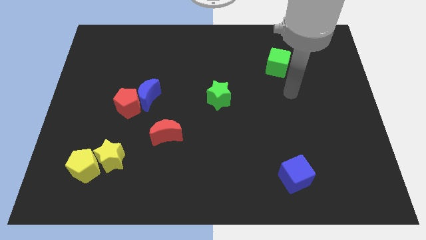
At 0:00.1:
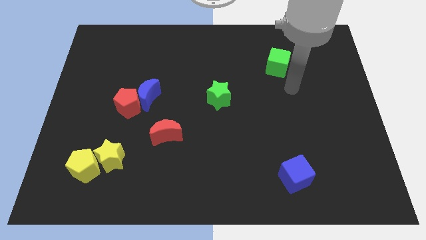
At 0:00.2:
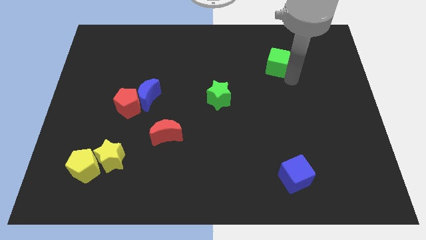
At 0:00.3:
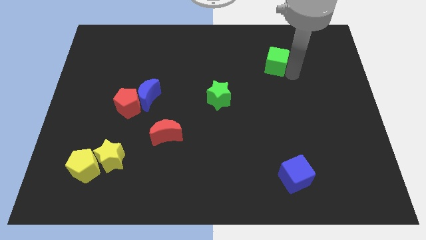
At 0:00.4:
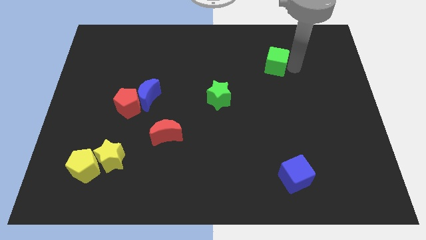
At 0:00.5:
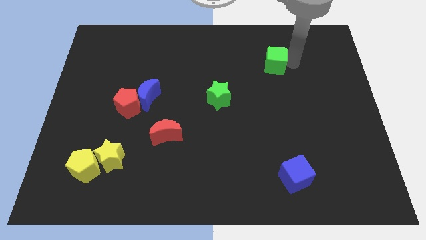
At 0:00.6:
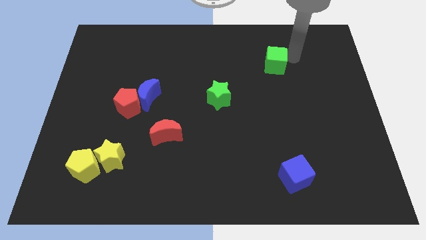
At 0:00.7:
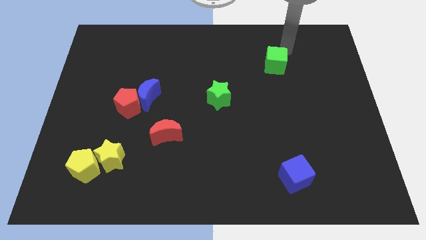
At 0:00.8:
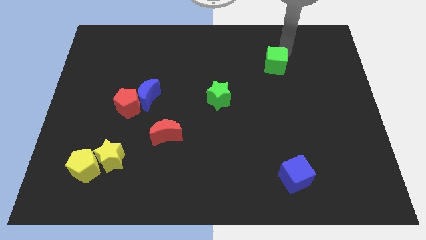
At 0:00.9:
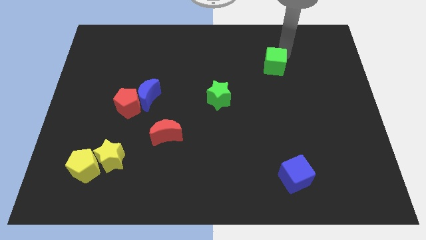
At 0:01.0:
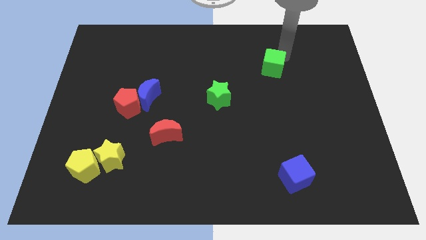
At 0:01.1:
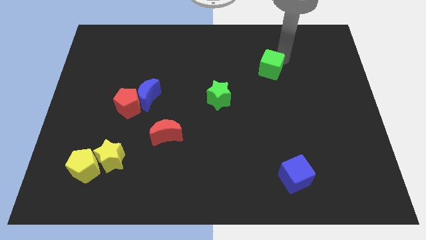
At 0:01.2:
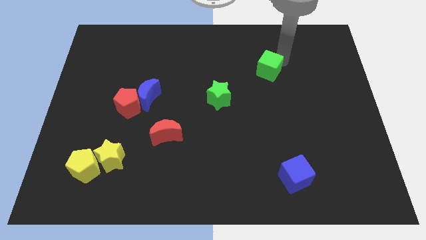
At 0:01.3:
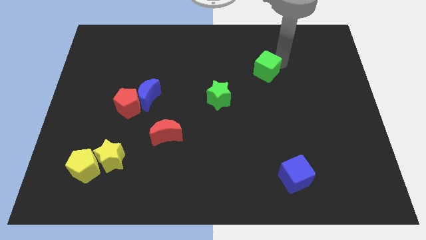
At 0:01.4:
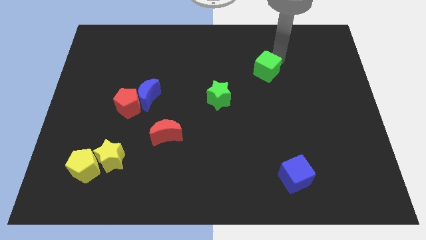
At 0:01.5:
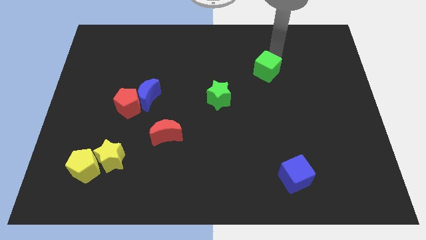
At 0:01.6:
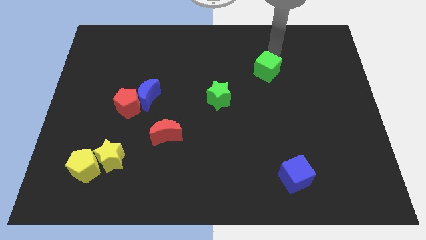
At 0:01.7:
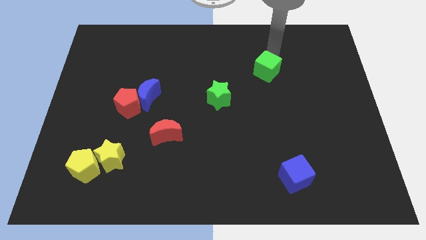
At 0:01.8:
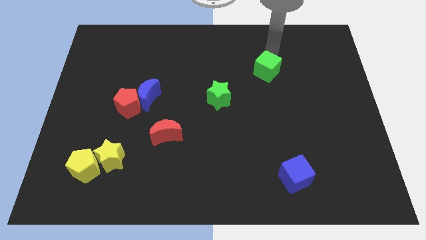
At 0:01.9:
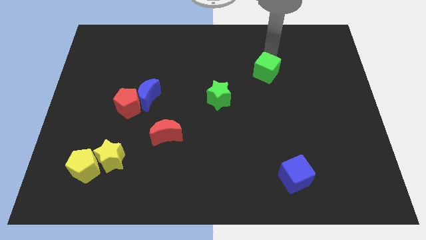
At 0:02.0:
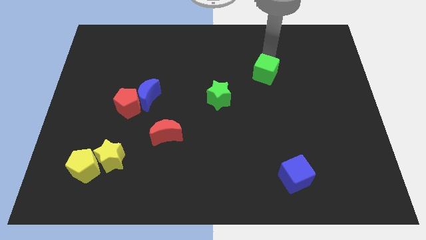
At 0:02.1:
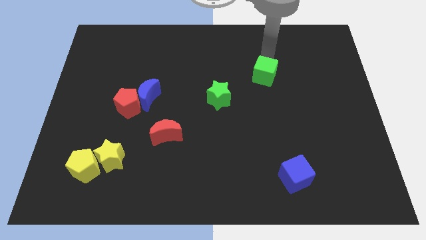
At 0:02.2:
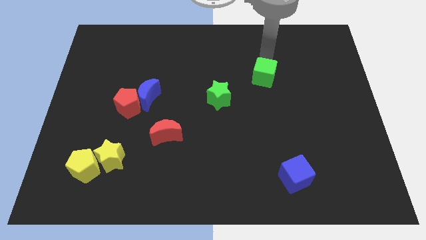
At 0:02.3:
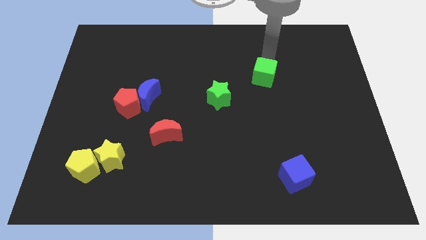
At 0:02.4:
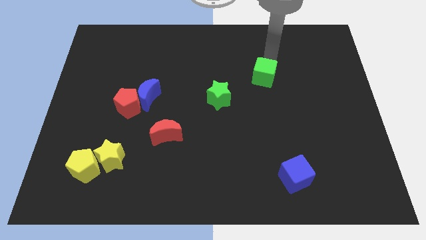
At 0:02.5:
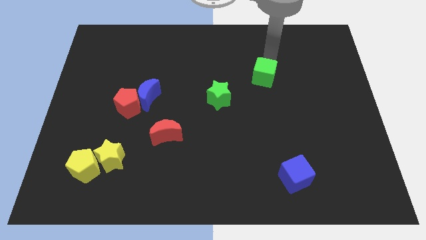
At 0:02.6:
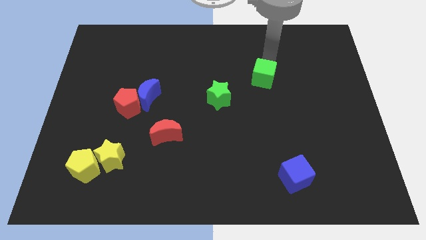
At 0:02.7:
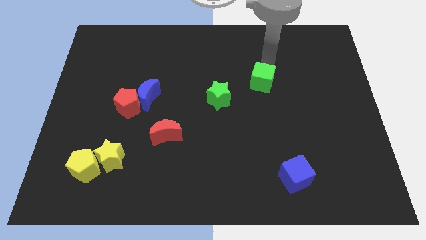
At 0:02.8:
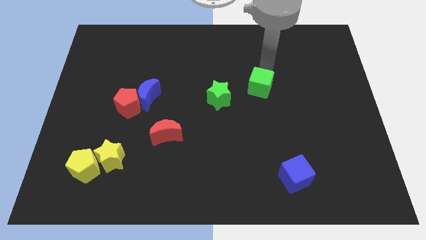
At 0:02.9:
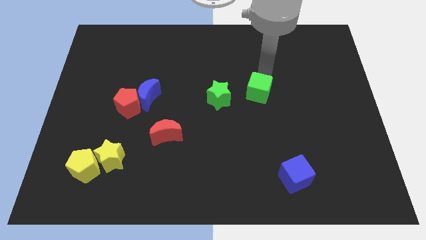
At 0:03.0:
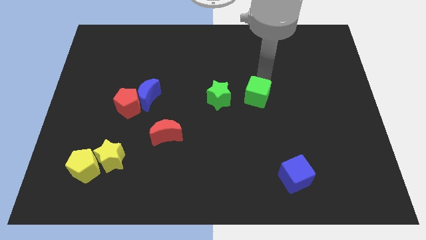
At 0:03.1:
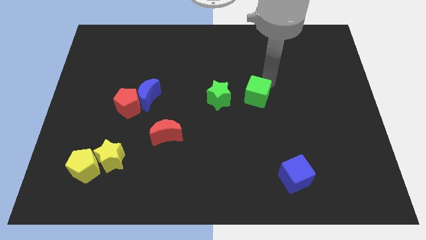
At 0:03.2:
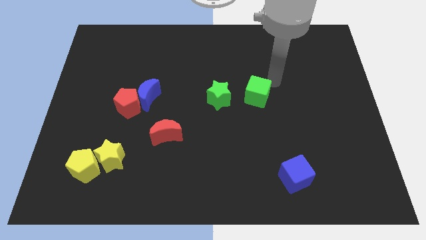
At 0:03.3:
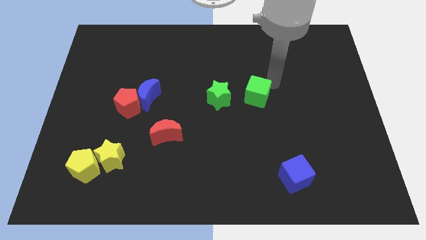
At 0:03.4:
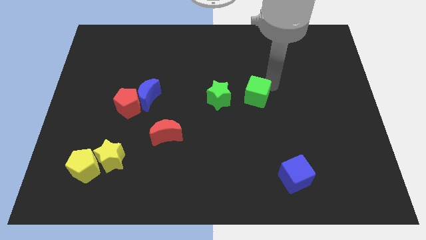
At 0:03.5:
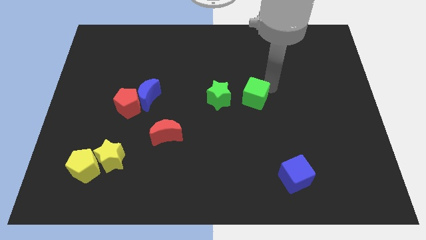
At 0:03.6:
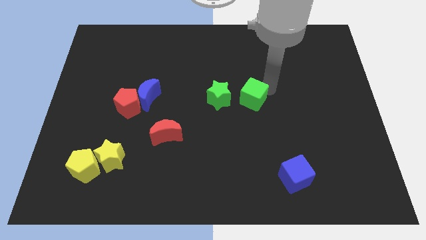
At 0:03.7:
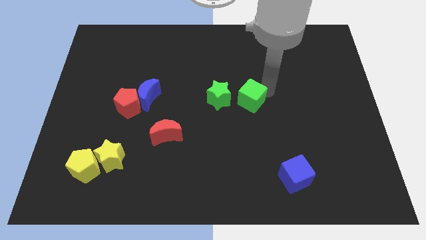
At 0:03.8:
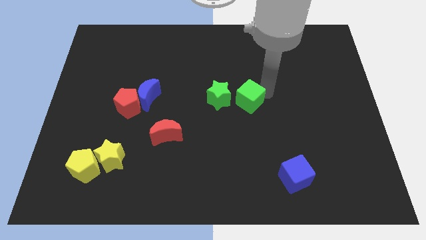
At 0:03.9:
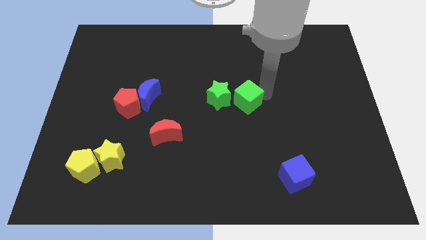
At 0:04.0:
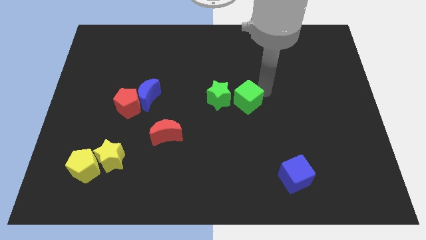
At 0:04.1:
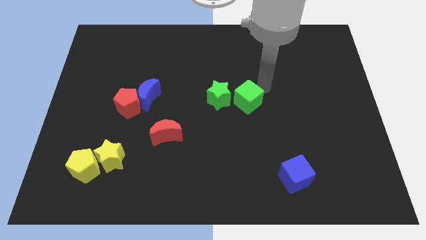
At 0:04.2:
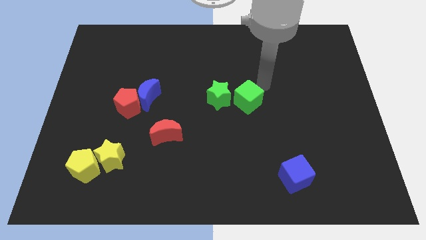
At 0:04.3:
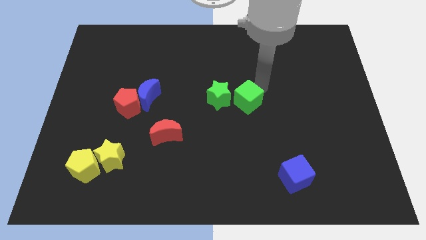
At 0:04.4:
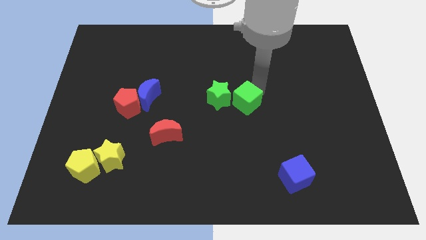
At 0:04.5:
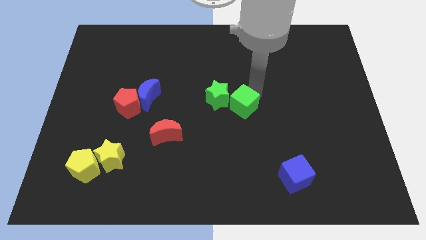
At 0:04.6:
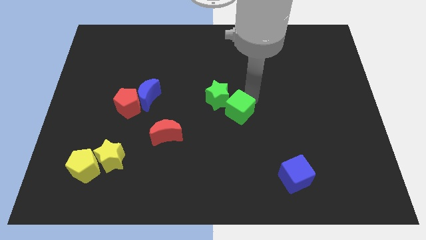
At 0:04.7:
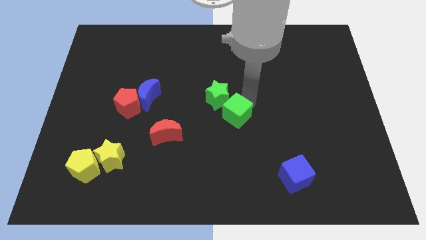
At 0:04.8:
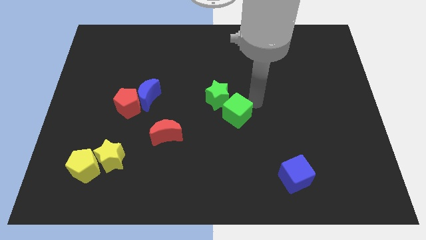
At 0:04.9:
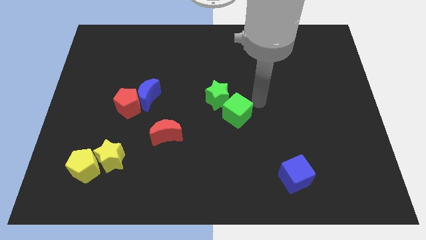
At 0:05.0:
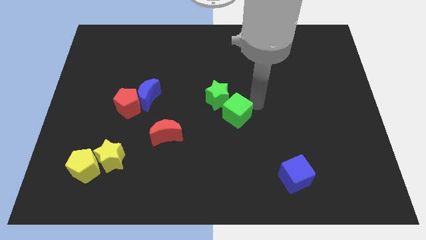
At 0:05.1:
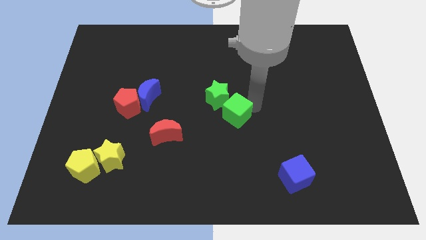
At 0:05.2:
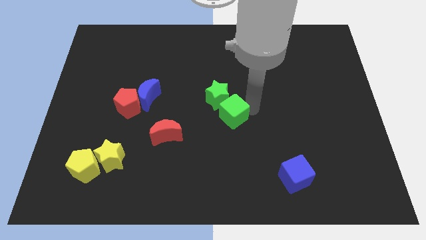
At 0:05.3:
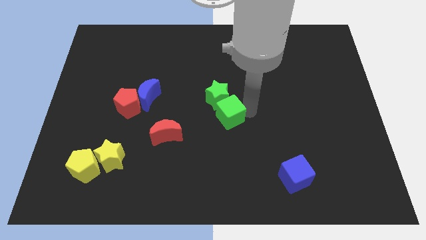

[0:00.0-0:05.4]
slide the green cube down and then to the left

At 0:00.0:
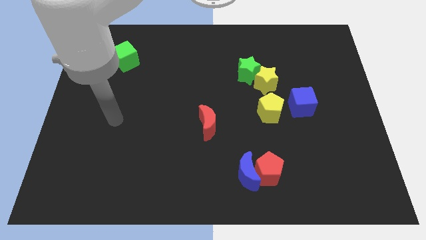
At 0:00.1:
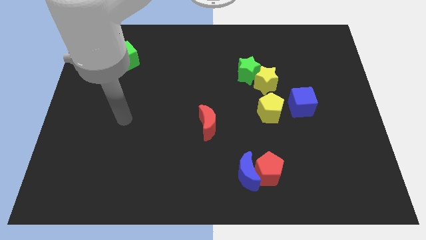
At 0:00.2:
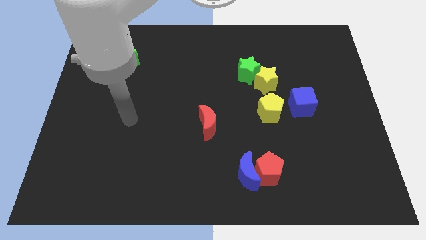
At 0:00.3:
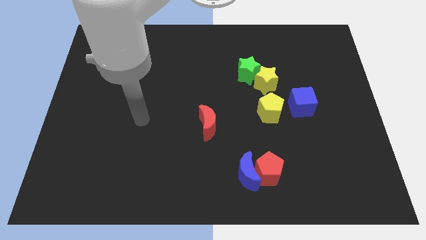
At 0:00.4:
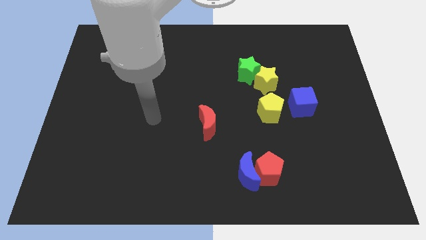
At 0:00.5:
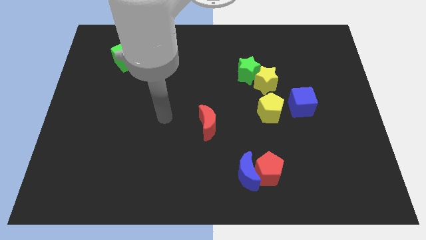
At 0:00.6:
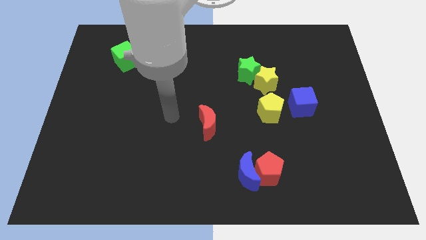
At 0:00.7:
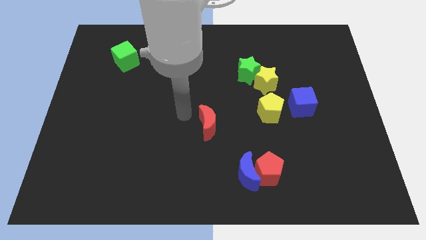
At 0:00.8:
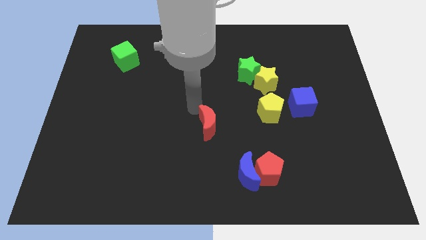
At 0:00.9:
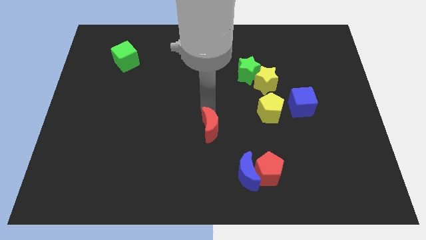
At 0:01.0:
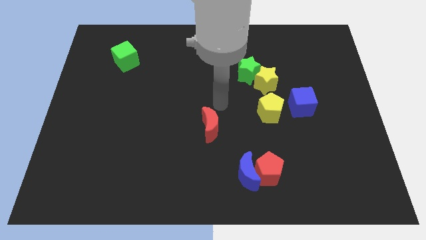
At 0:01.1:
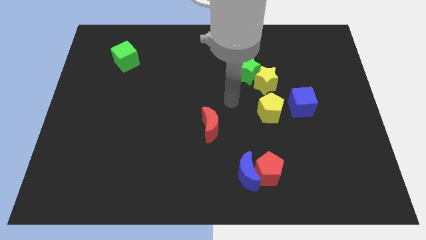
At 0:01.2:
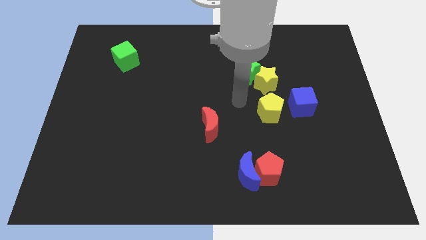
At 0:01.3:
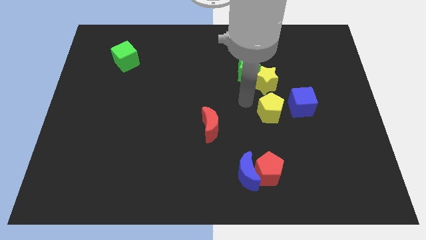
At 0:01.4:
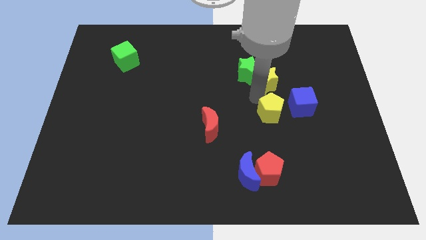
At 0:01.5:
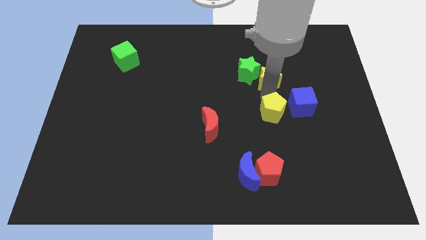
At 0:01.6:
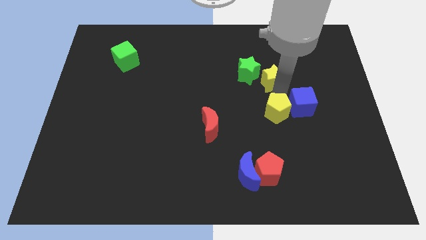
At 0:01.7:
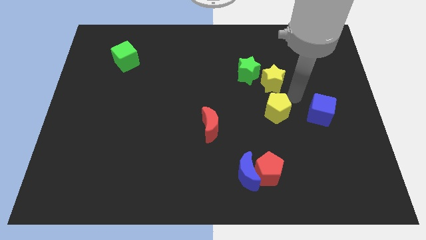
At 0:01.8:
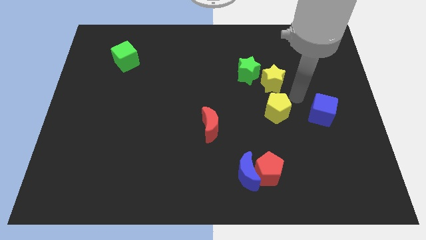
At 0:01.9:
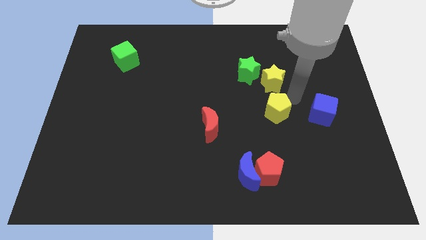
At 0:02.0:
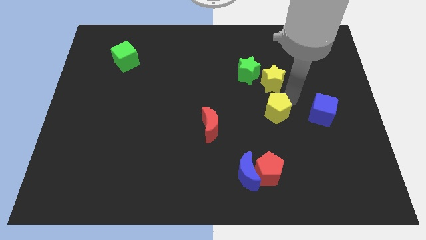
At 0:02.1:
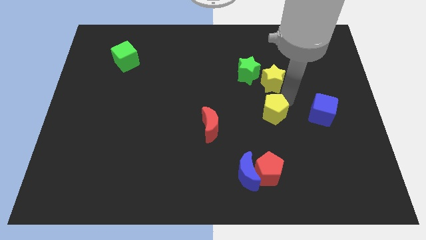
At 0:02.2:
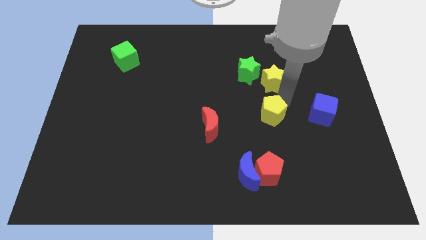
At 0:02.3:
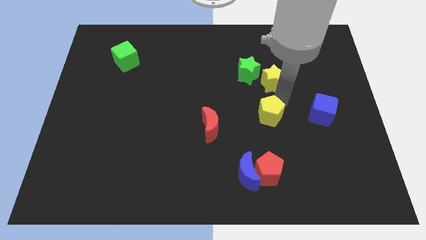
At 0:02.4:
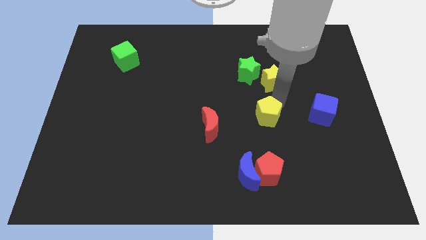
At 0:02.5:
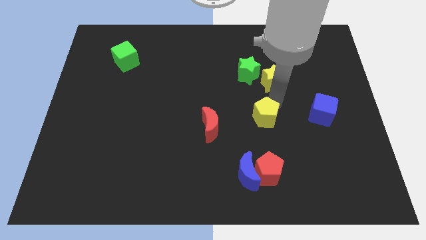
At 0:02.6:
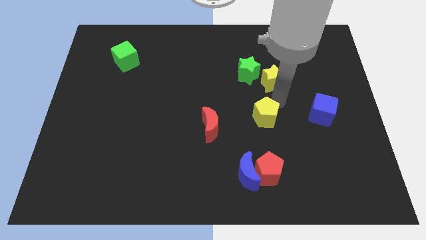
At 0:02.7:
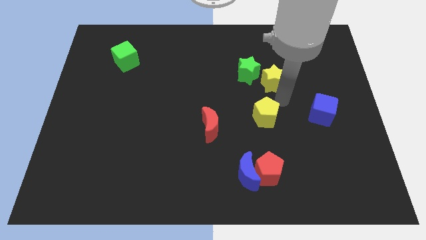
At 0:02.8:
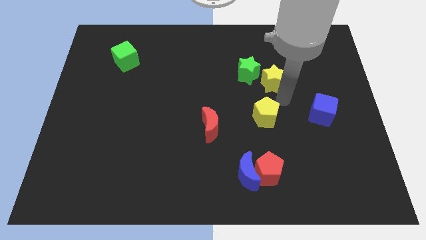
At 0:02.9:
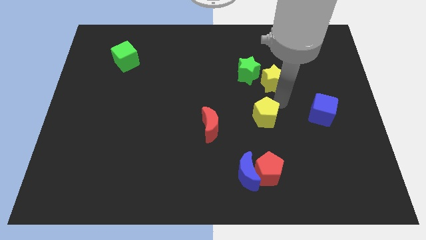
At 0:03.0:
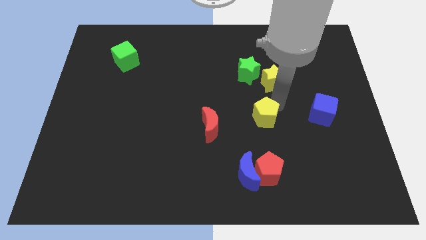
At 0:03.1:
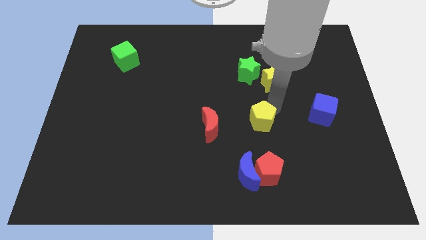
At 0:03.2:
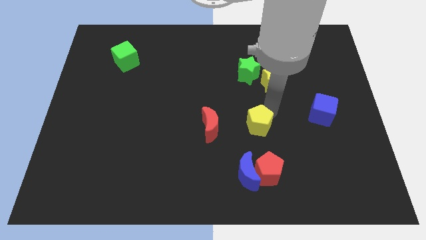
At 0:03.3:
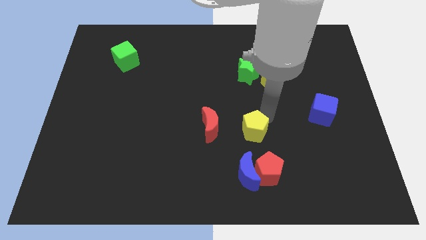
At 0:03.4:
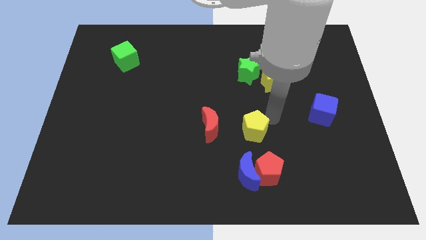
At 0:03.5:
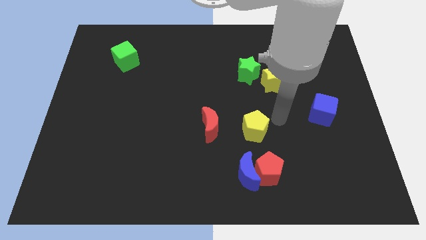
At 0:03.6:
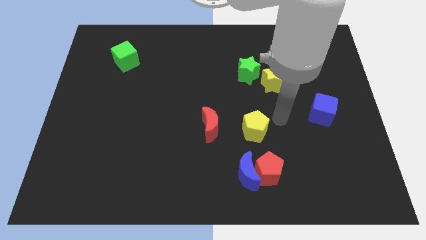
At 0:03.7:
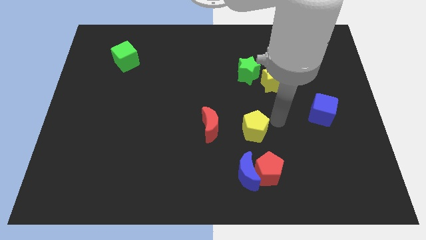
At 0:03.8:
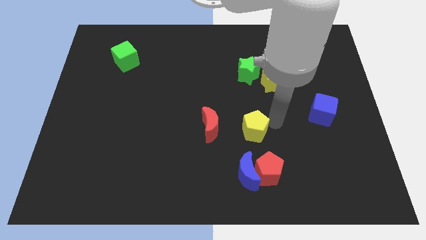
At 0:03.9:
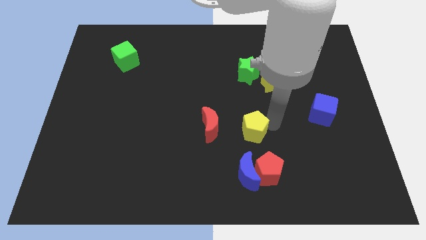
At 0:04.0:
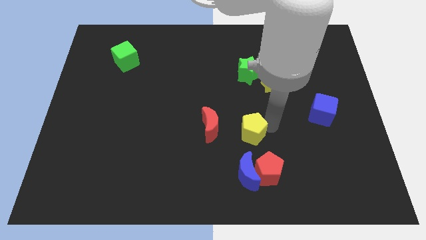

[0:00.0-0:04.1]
slightly move the yellow pentagon downwards and left diagonally
